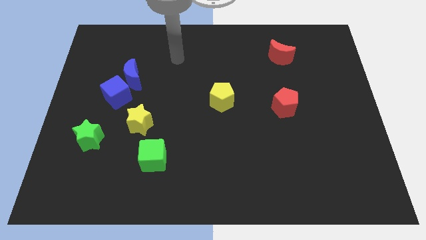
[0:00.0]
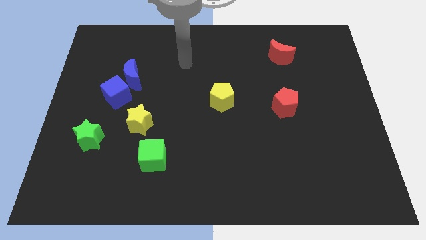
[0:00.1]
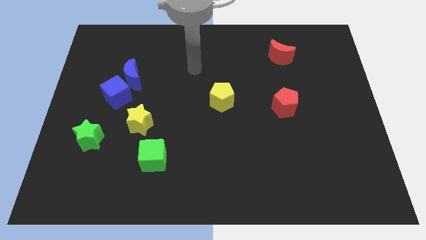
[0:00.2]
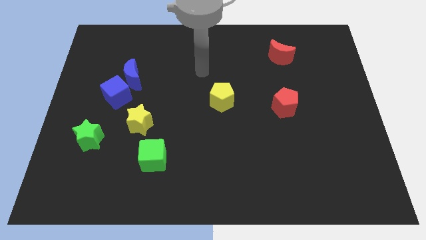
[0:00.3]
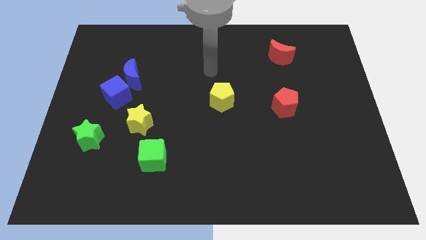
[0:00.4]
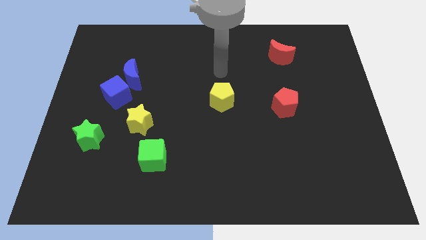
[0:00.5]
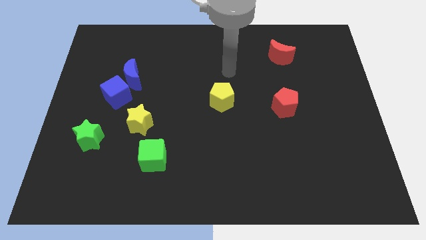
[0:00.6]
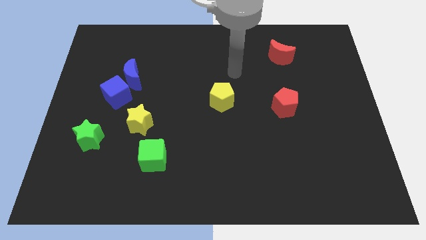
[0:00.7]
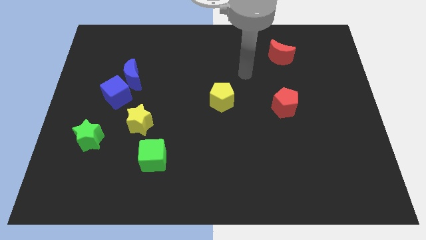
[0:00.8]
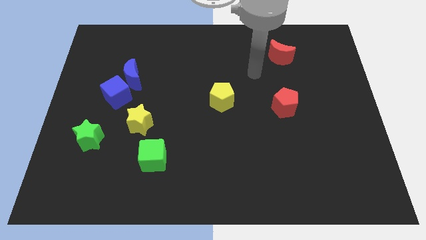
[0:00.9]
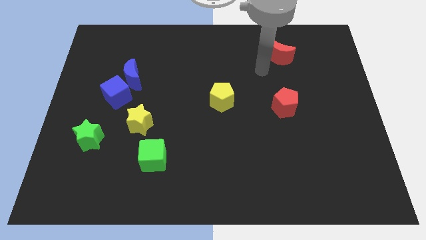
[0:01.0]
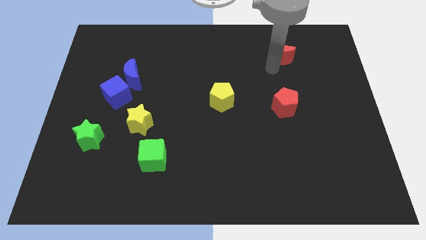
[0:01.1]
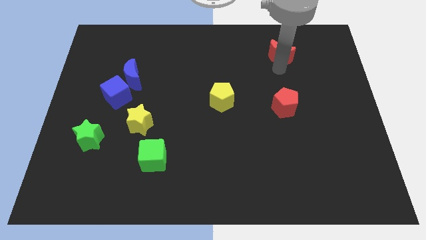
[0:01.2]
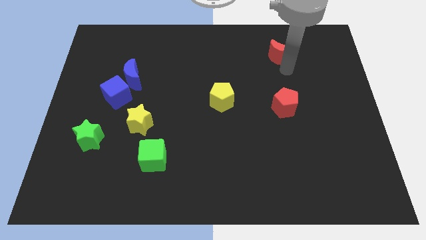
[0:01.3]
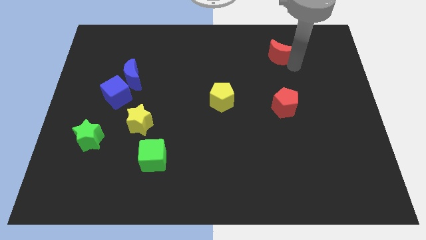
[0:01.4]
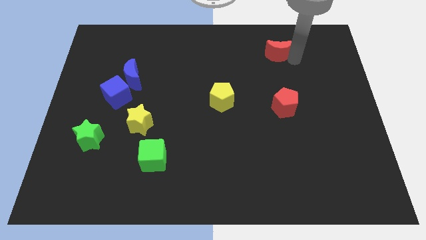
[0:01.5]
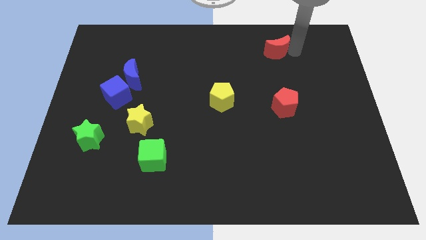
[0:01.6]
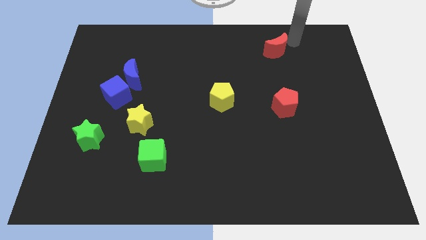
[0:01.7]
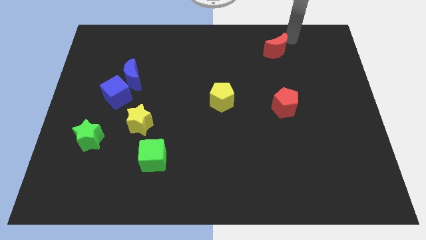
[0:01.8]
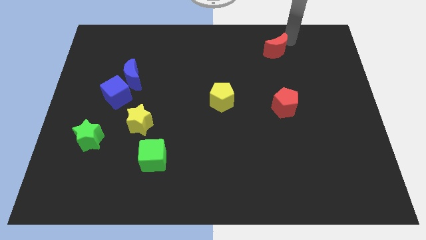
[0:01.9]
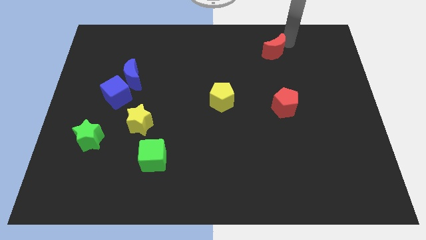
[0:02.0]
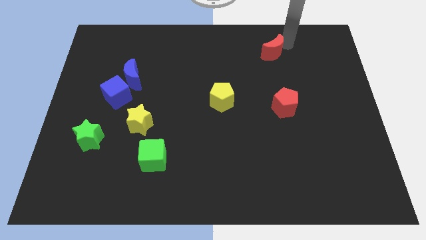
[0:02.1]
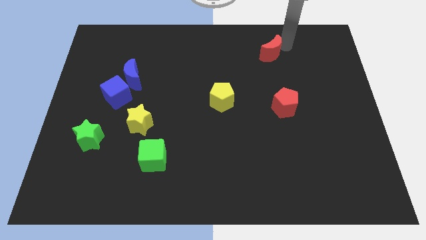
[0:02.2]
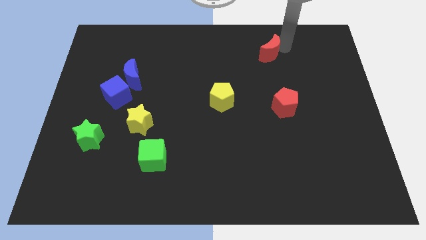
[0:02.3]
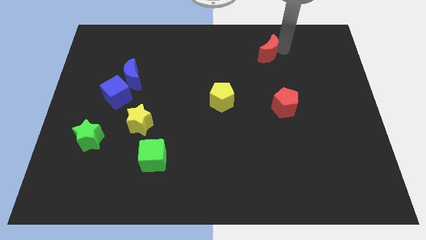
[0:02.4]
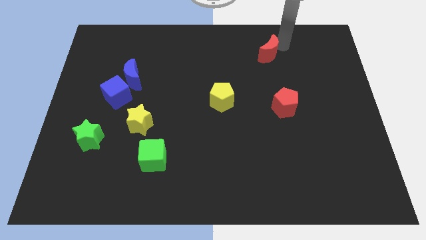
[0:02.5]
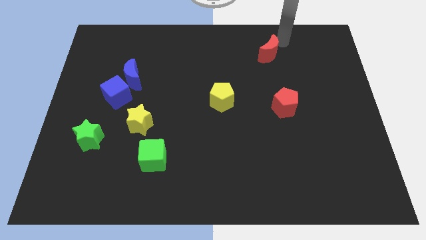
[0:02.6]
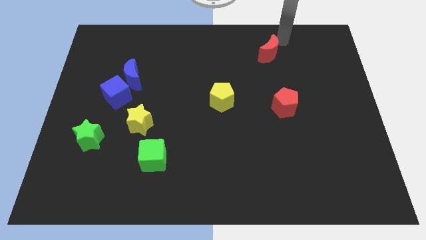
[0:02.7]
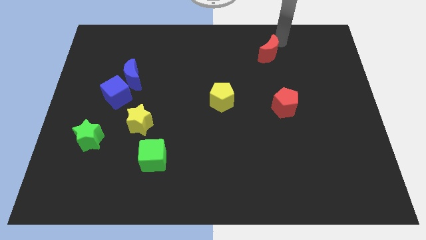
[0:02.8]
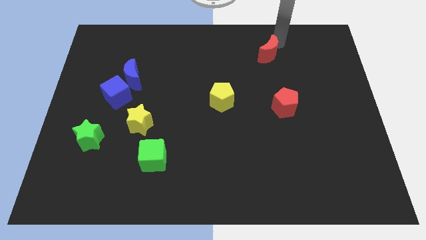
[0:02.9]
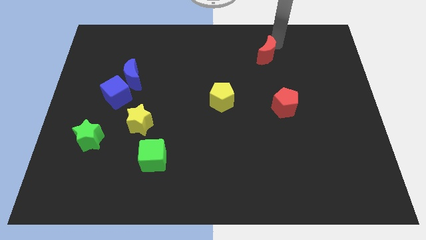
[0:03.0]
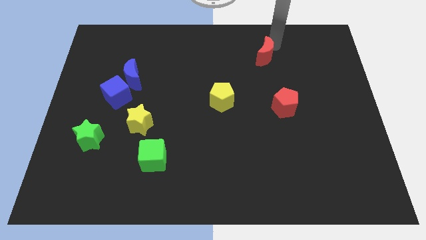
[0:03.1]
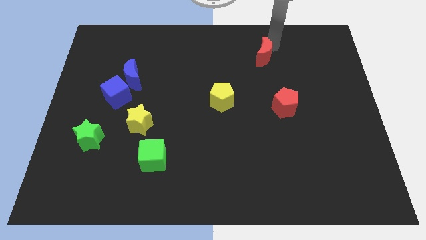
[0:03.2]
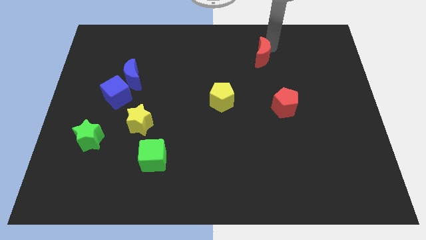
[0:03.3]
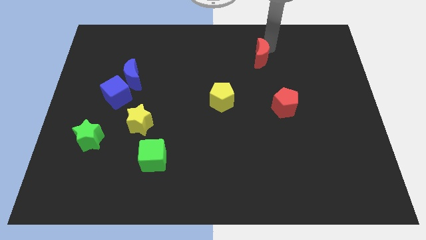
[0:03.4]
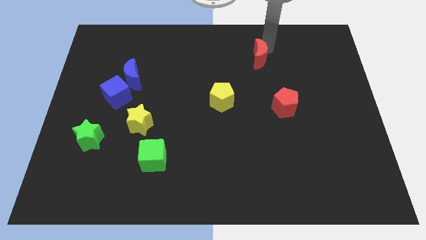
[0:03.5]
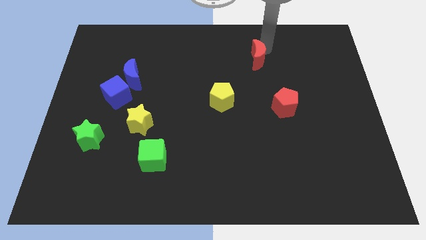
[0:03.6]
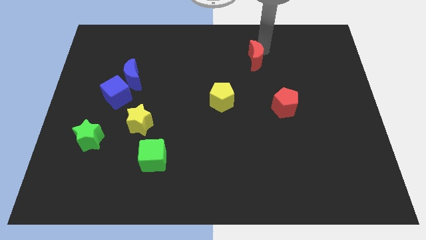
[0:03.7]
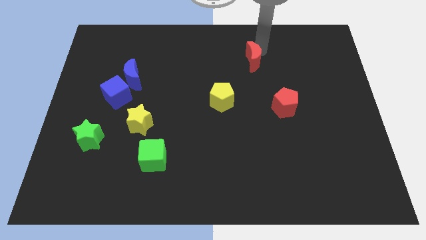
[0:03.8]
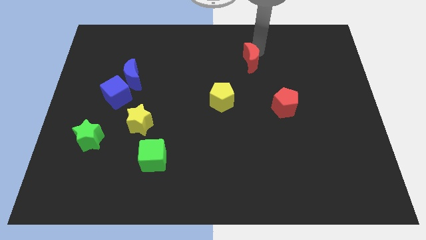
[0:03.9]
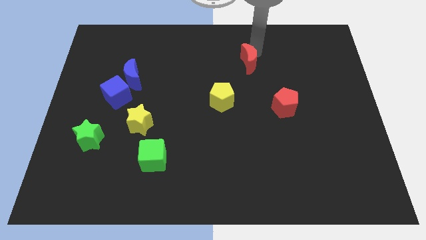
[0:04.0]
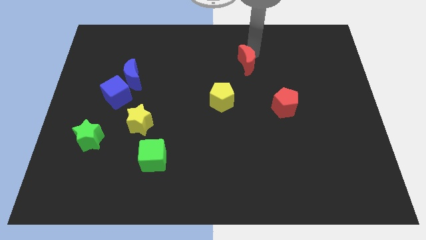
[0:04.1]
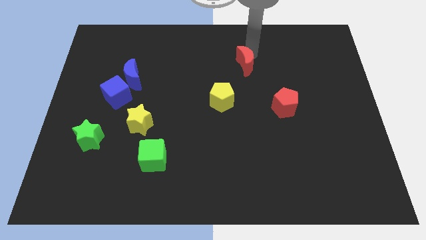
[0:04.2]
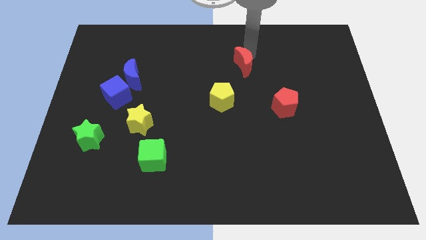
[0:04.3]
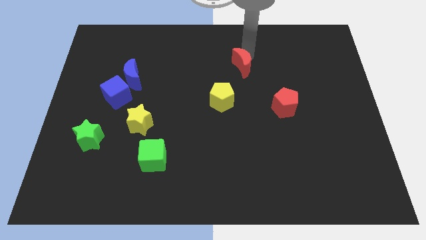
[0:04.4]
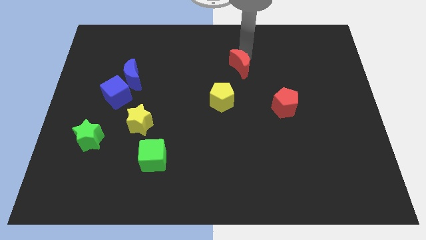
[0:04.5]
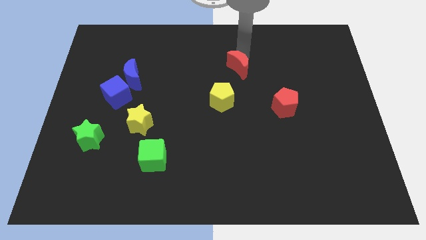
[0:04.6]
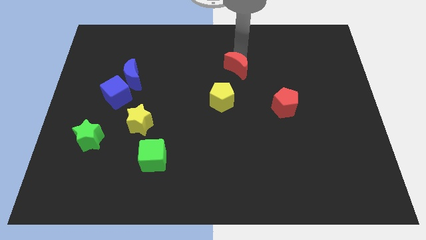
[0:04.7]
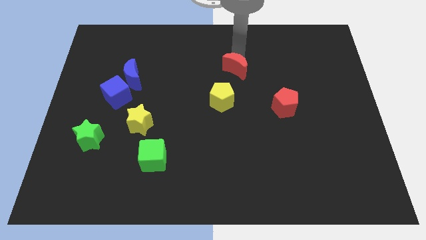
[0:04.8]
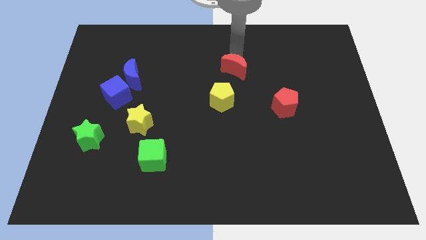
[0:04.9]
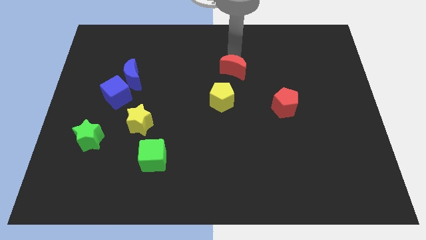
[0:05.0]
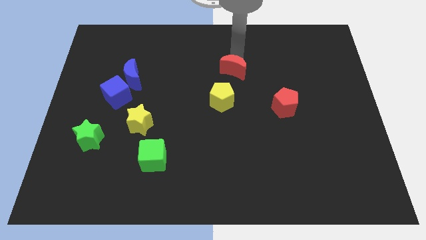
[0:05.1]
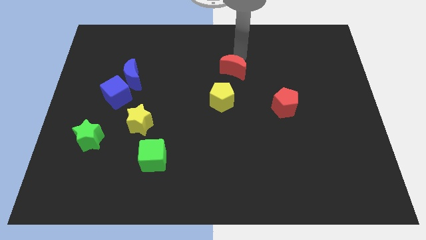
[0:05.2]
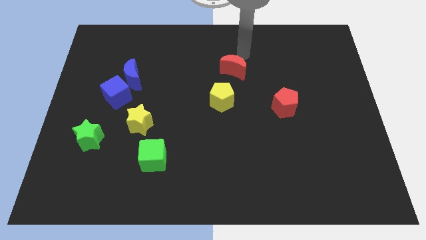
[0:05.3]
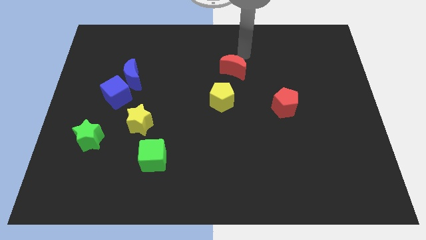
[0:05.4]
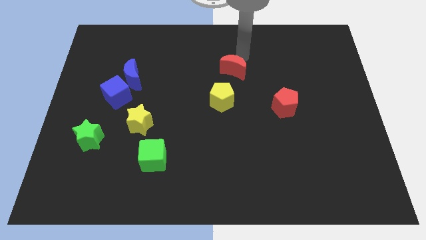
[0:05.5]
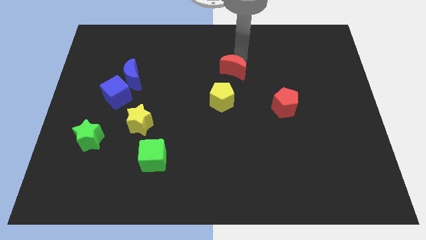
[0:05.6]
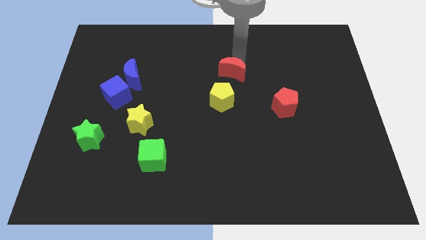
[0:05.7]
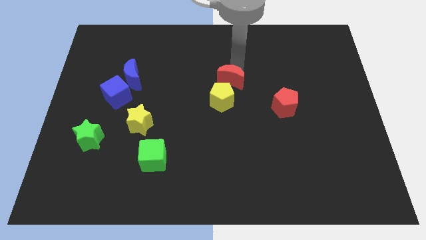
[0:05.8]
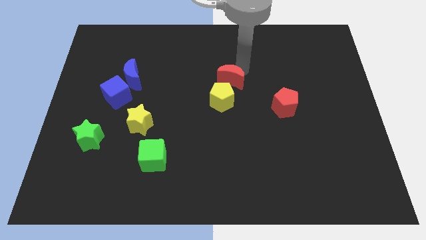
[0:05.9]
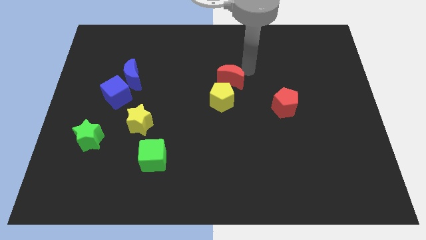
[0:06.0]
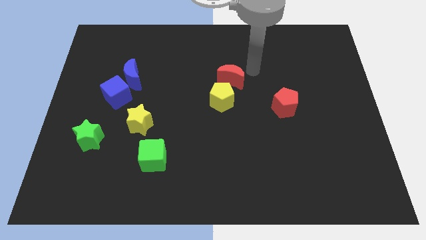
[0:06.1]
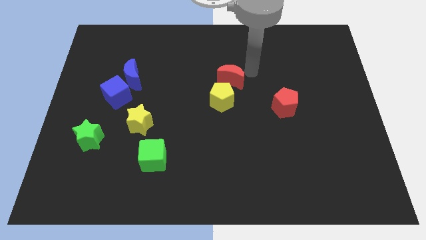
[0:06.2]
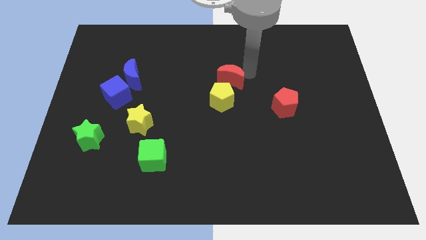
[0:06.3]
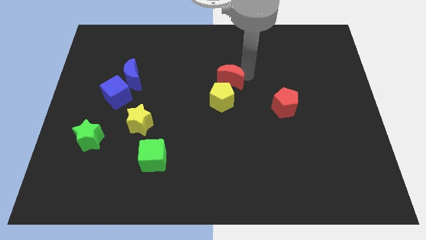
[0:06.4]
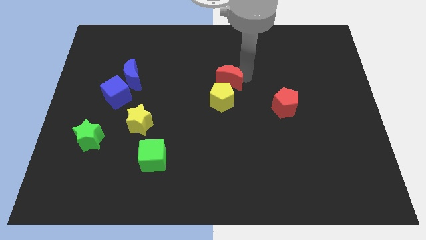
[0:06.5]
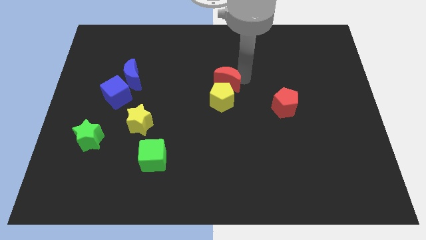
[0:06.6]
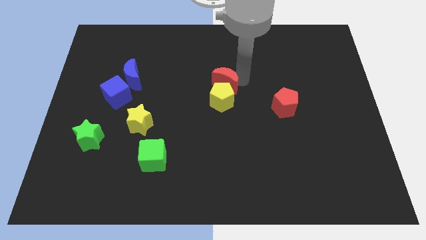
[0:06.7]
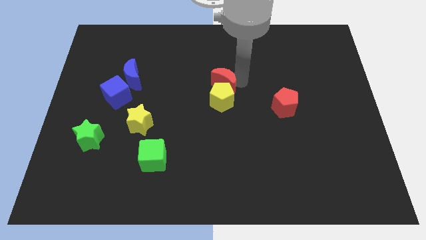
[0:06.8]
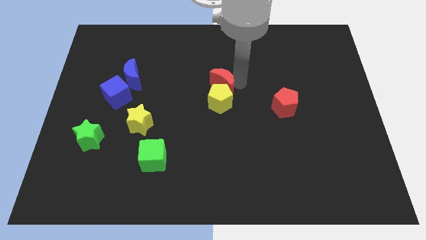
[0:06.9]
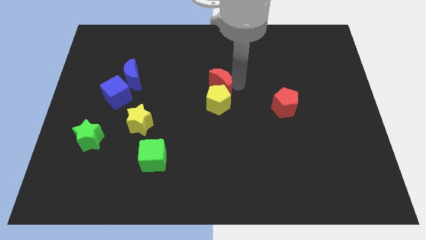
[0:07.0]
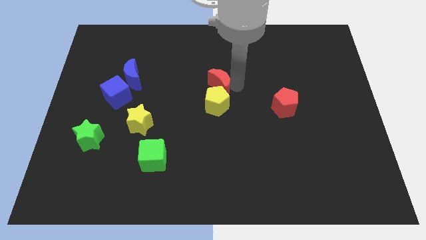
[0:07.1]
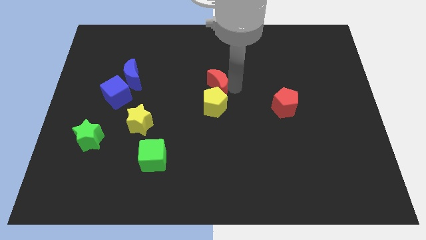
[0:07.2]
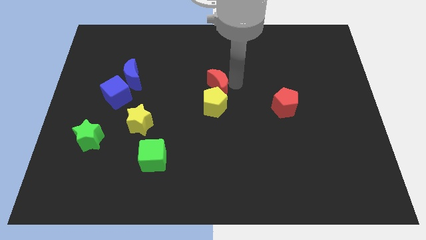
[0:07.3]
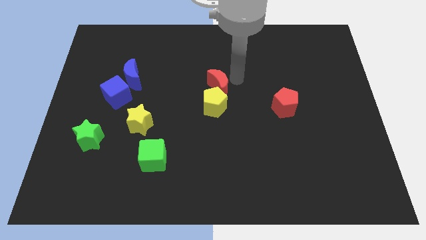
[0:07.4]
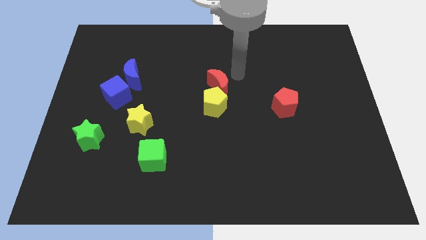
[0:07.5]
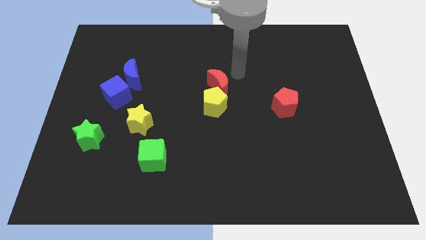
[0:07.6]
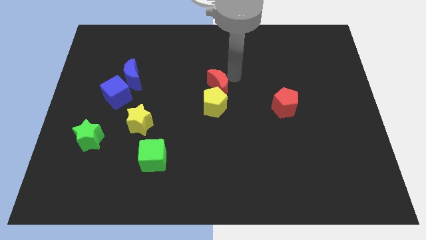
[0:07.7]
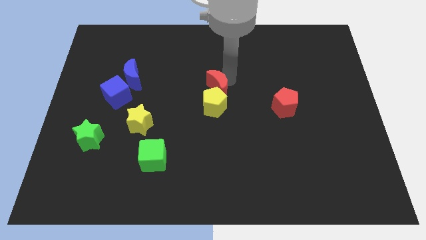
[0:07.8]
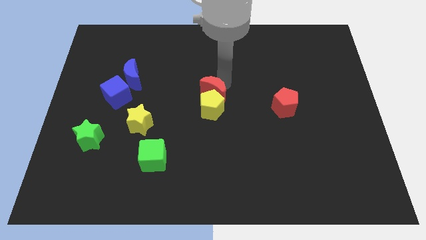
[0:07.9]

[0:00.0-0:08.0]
move the red moon down and left diagonally
